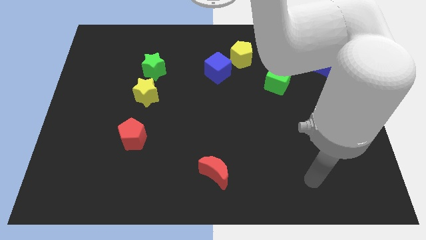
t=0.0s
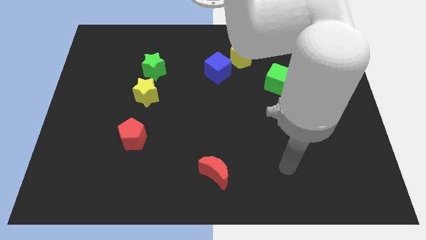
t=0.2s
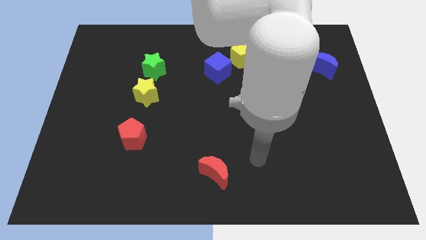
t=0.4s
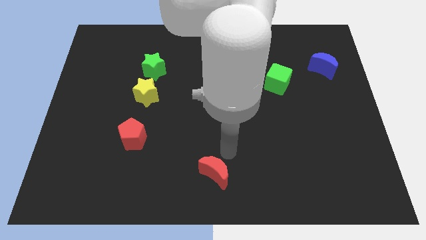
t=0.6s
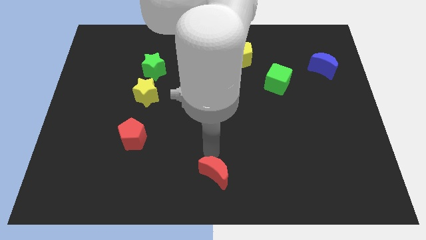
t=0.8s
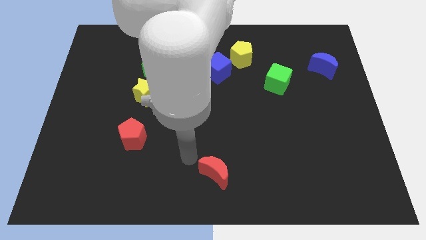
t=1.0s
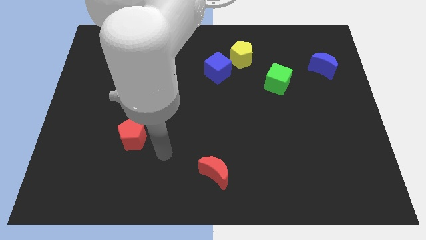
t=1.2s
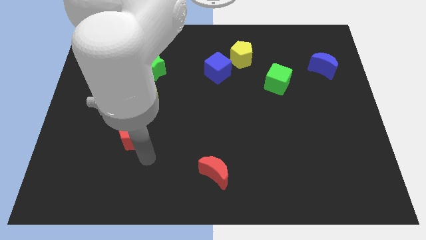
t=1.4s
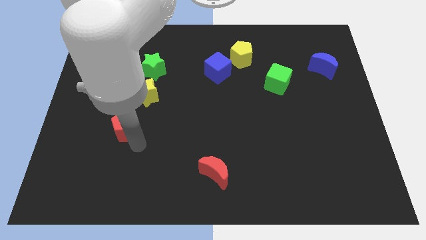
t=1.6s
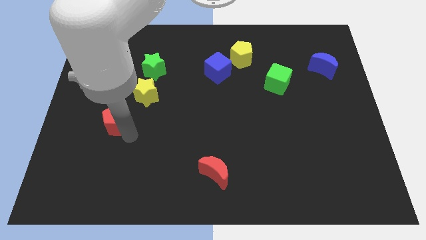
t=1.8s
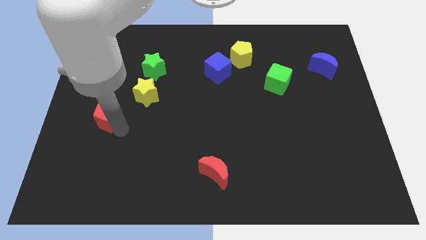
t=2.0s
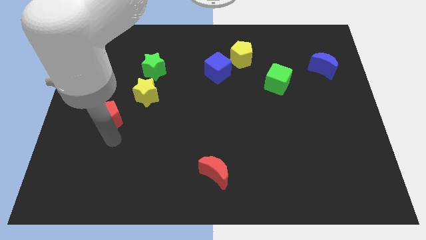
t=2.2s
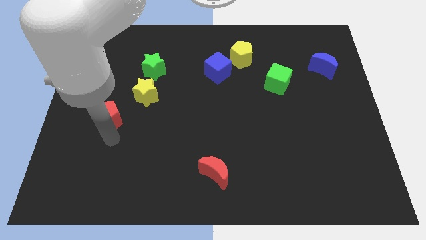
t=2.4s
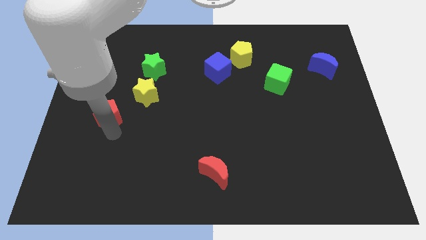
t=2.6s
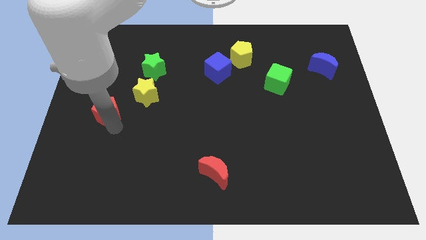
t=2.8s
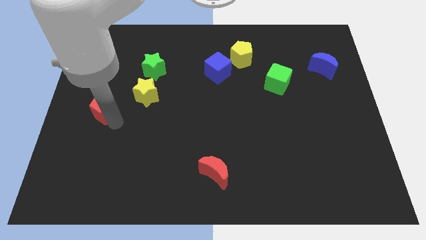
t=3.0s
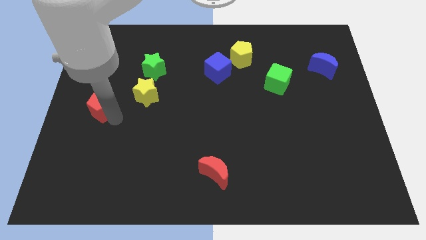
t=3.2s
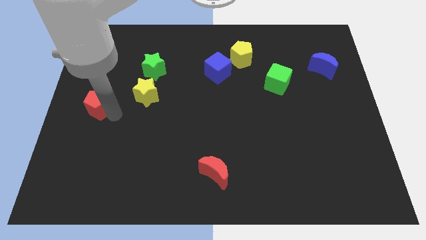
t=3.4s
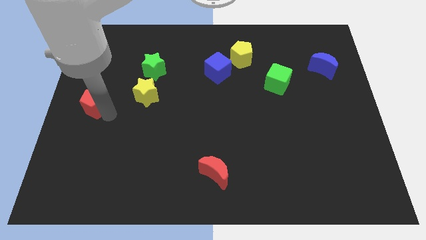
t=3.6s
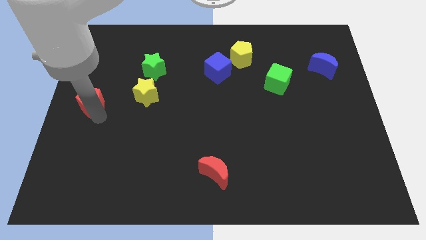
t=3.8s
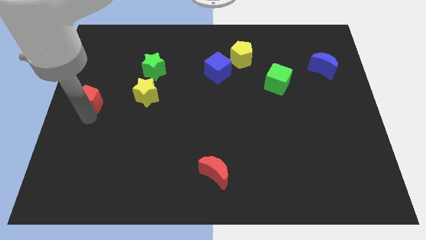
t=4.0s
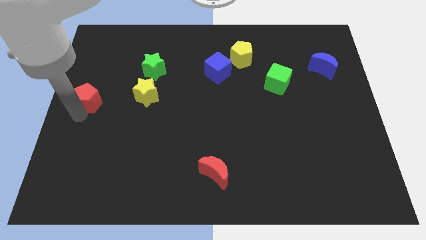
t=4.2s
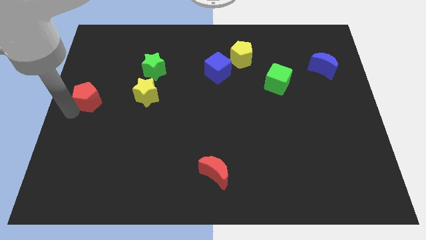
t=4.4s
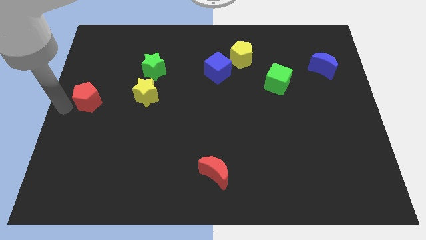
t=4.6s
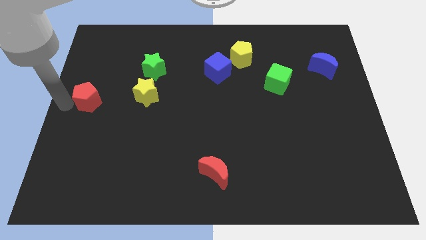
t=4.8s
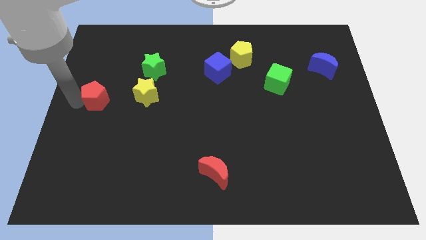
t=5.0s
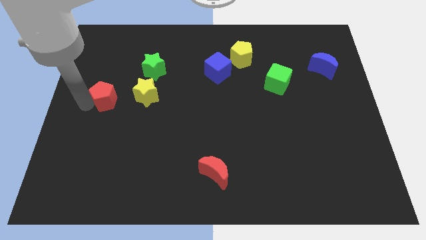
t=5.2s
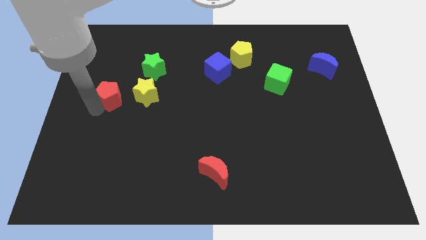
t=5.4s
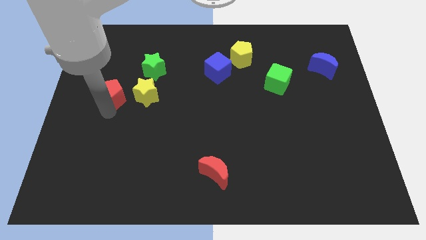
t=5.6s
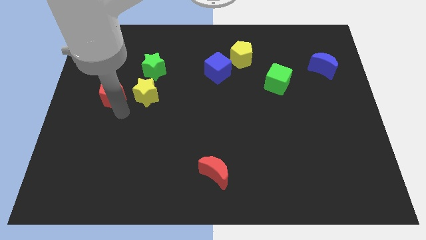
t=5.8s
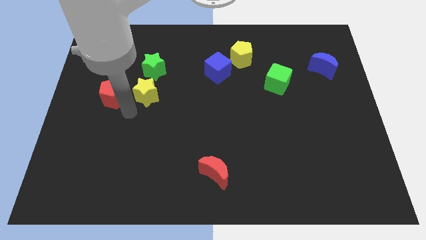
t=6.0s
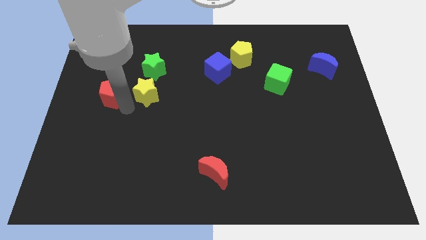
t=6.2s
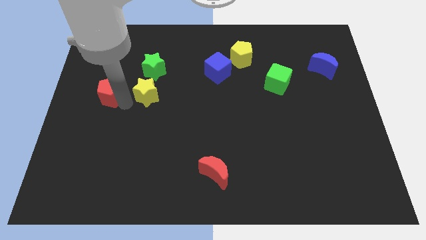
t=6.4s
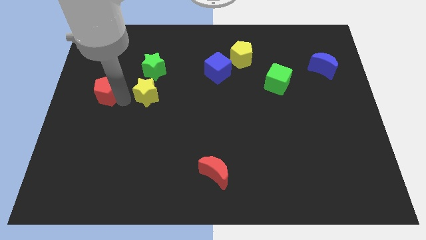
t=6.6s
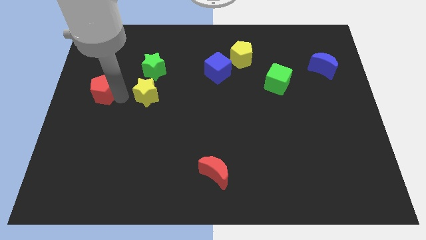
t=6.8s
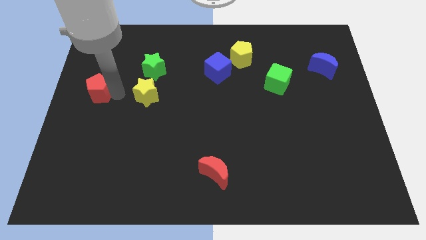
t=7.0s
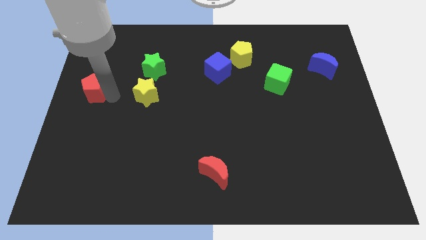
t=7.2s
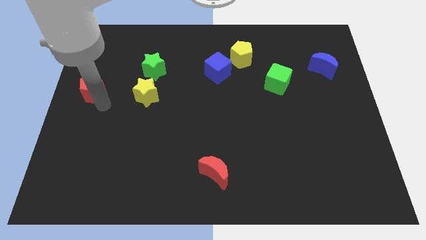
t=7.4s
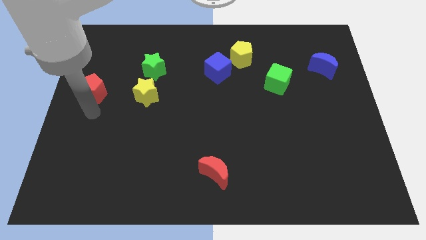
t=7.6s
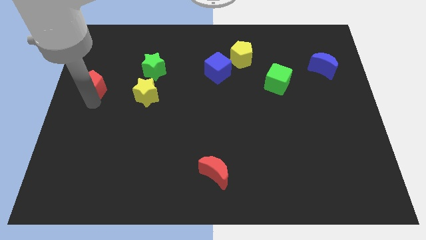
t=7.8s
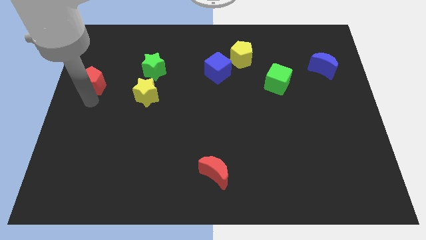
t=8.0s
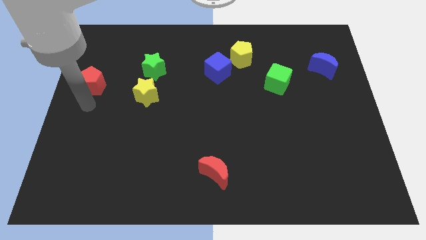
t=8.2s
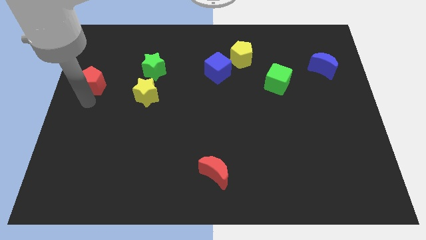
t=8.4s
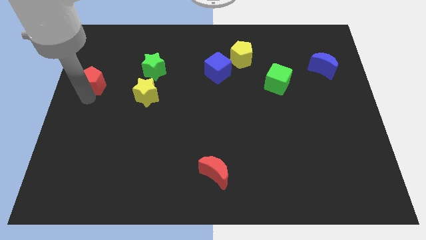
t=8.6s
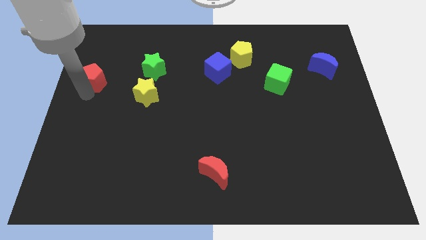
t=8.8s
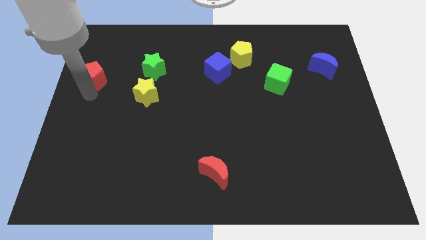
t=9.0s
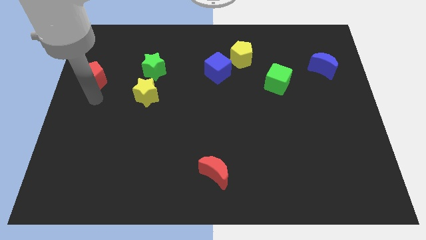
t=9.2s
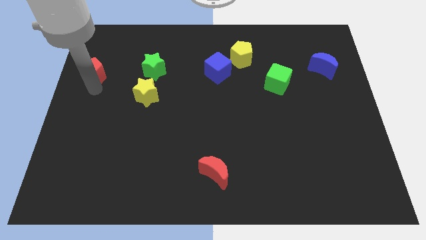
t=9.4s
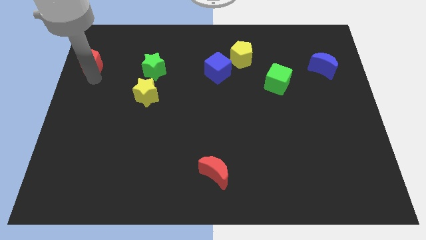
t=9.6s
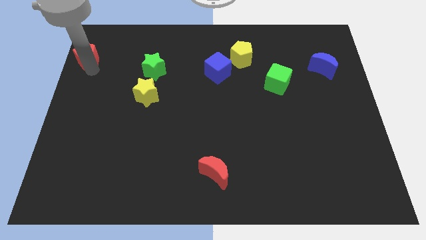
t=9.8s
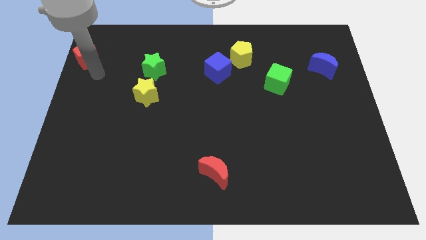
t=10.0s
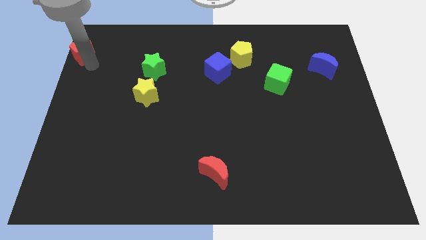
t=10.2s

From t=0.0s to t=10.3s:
move the red pentagon to the top left of the board

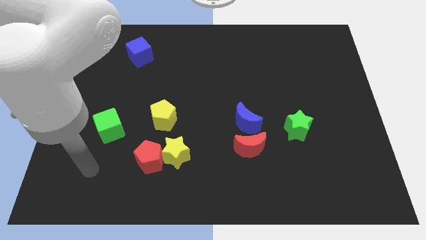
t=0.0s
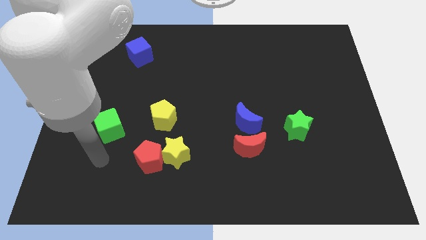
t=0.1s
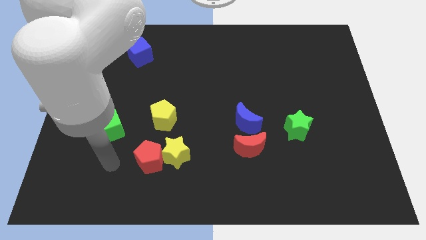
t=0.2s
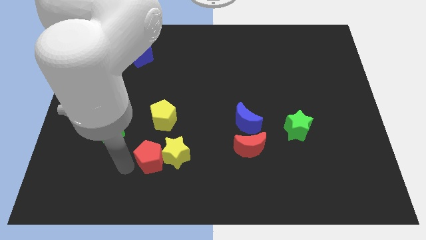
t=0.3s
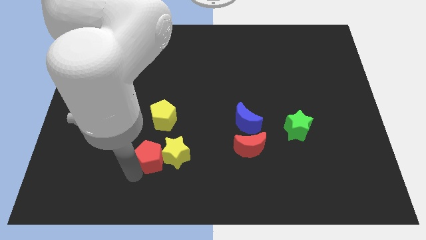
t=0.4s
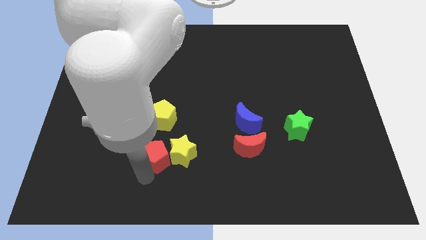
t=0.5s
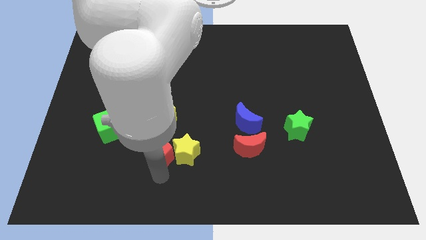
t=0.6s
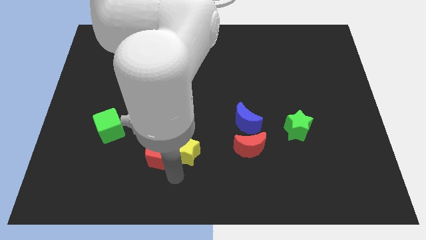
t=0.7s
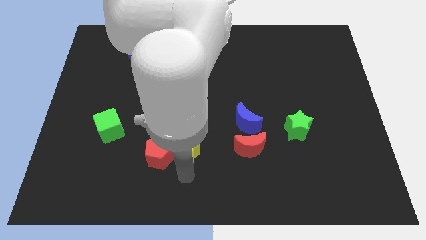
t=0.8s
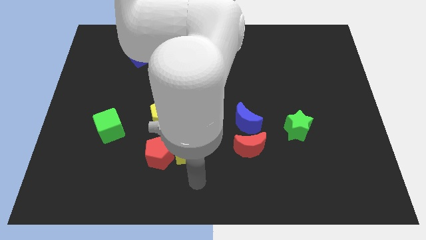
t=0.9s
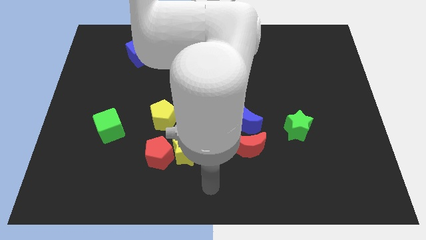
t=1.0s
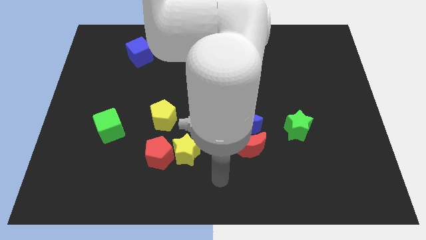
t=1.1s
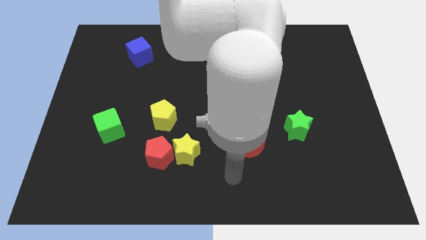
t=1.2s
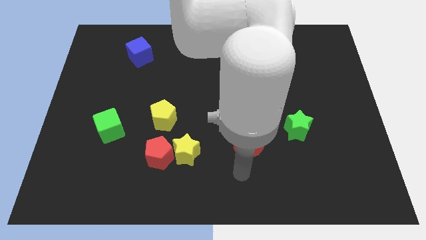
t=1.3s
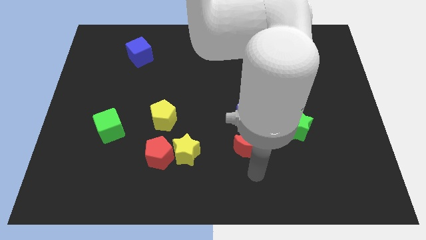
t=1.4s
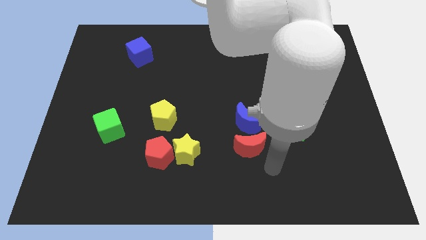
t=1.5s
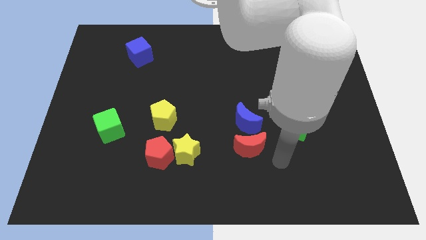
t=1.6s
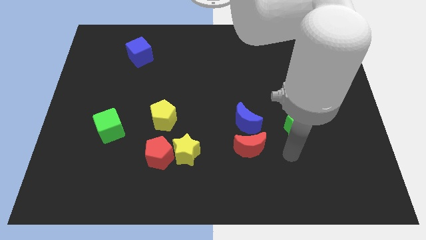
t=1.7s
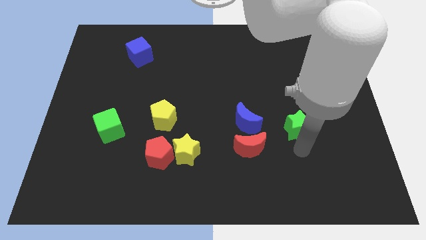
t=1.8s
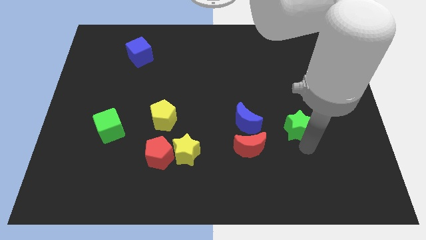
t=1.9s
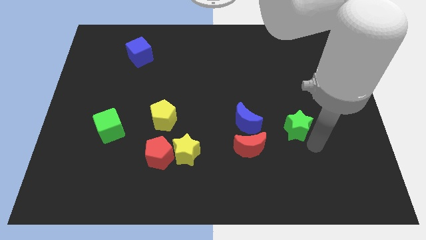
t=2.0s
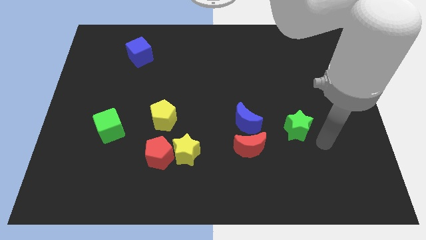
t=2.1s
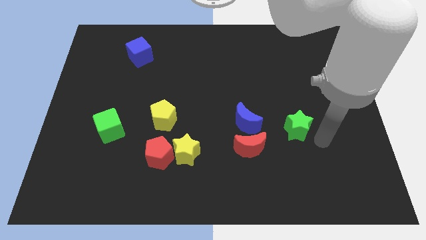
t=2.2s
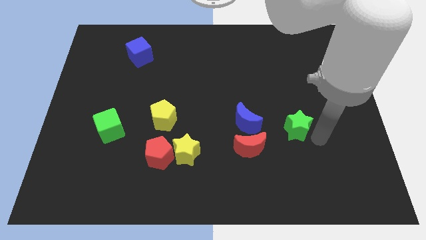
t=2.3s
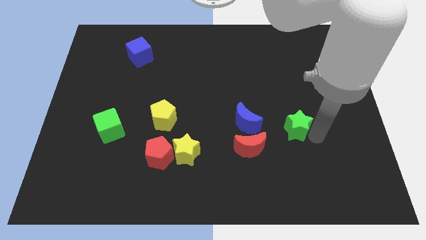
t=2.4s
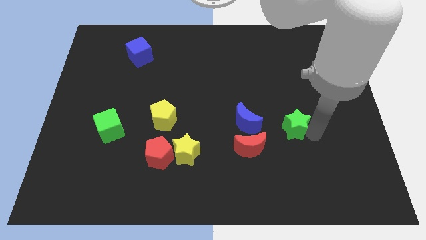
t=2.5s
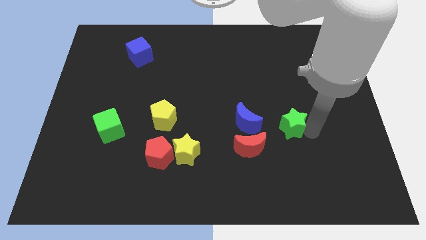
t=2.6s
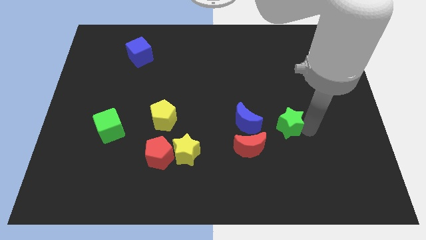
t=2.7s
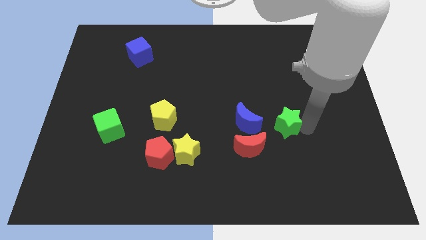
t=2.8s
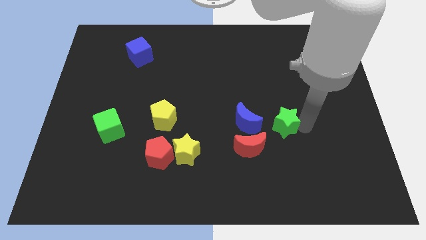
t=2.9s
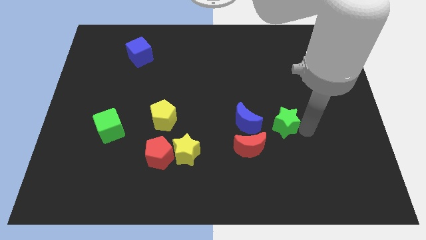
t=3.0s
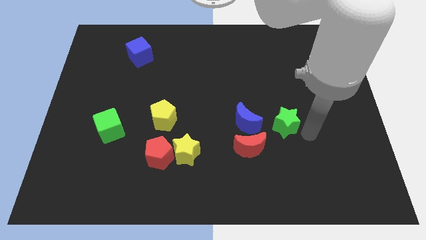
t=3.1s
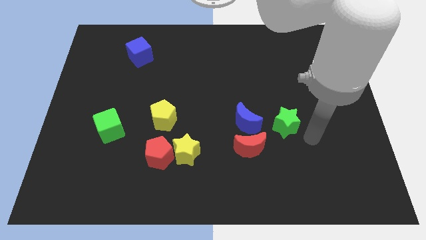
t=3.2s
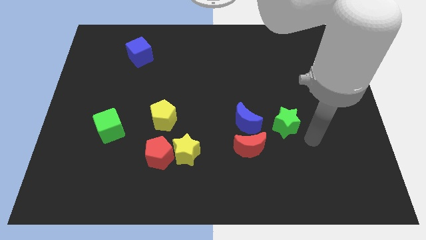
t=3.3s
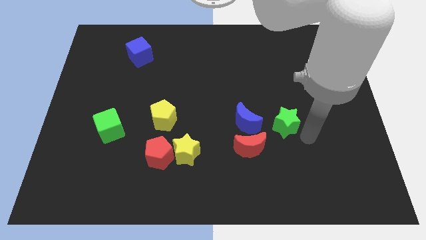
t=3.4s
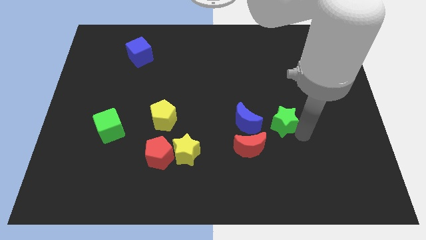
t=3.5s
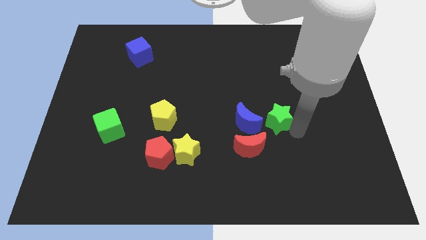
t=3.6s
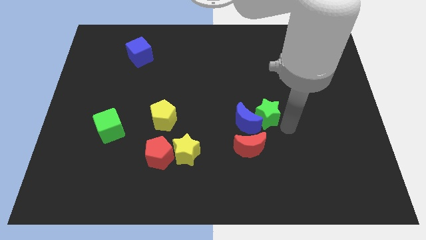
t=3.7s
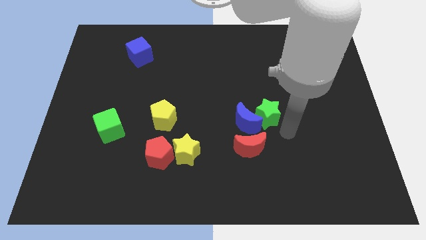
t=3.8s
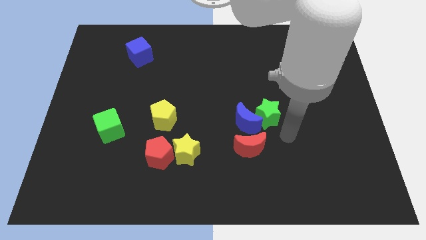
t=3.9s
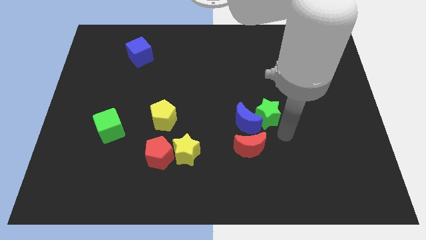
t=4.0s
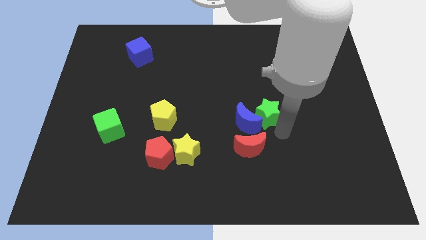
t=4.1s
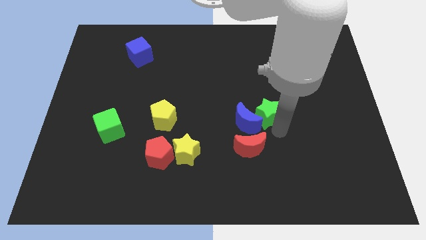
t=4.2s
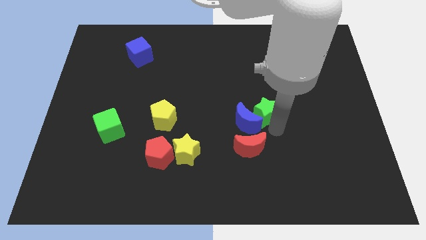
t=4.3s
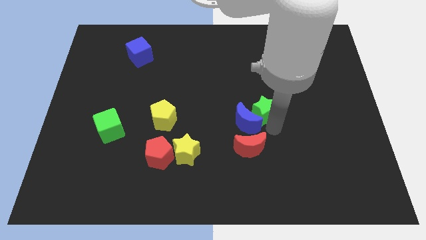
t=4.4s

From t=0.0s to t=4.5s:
slide the green star to the middle of the board
